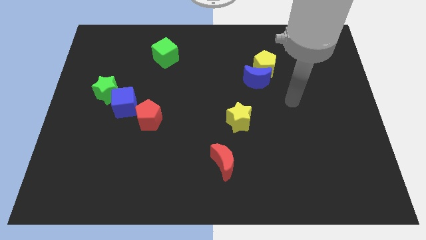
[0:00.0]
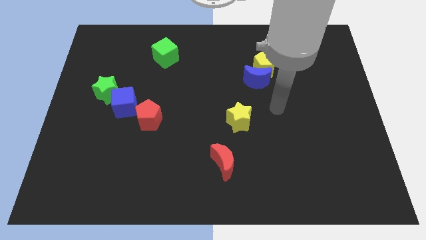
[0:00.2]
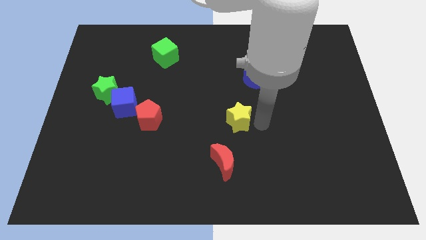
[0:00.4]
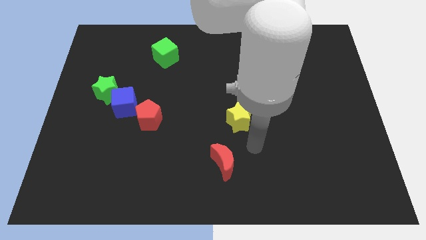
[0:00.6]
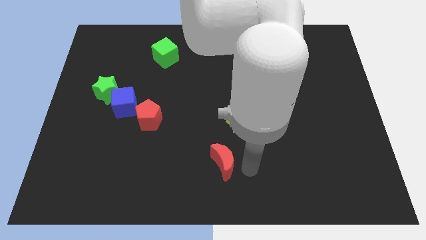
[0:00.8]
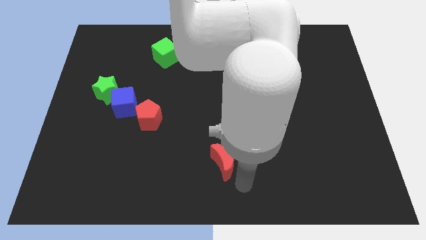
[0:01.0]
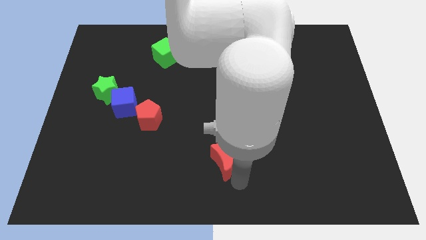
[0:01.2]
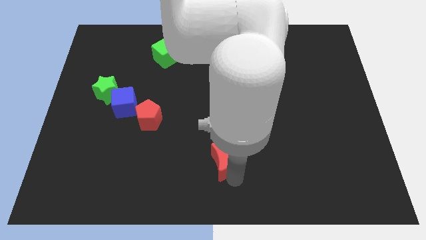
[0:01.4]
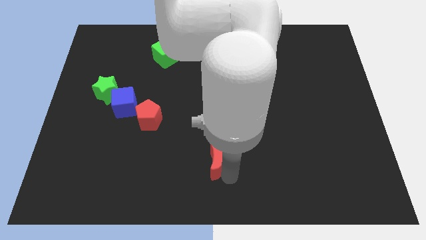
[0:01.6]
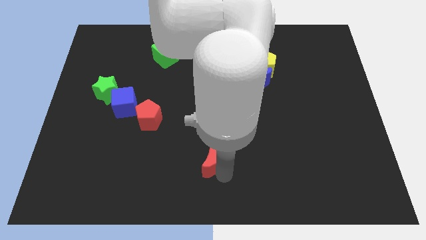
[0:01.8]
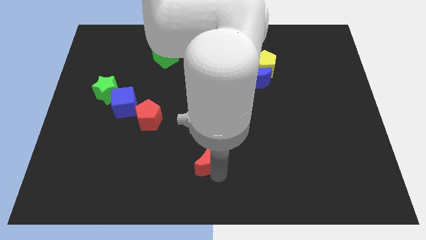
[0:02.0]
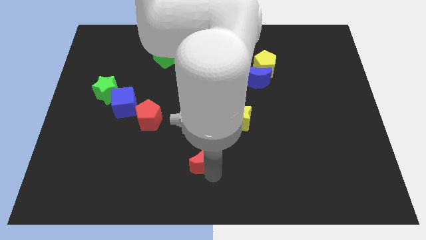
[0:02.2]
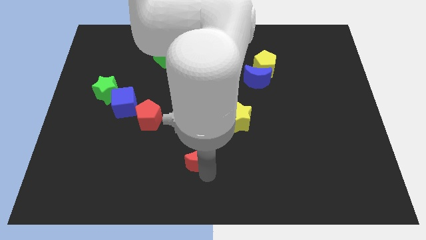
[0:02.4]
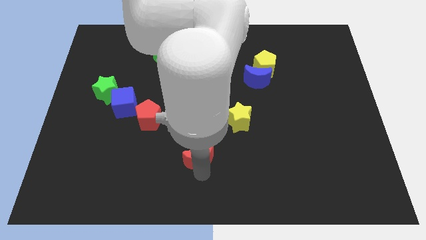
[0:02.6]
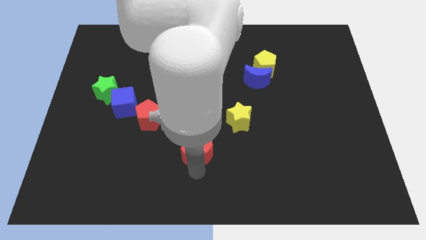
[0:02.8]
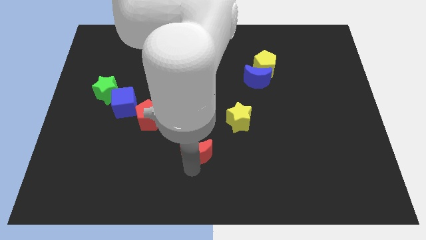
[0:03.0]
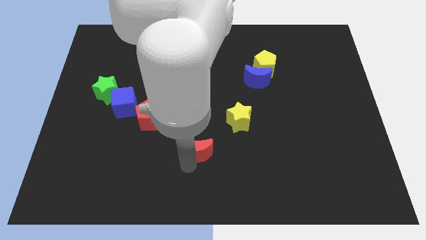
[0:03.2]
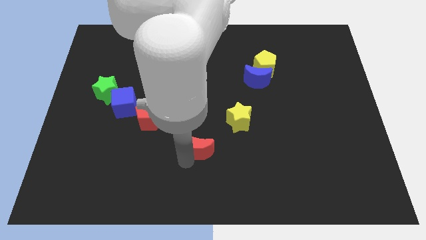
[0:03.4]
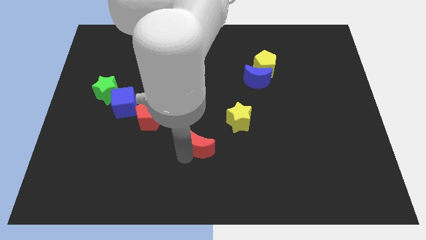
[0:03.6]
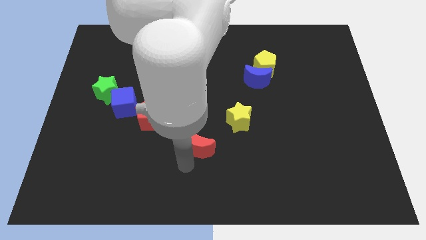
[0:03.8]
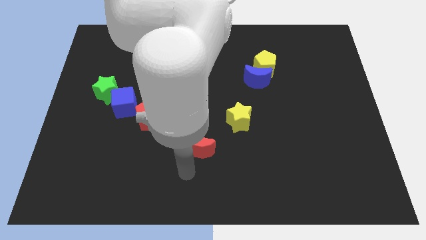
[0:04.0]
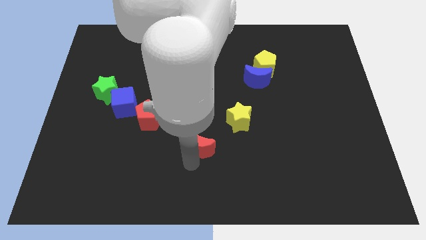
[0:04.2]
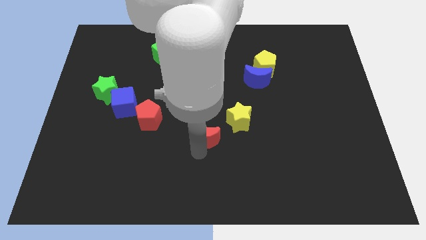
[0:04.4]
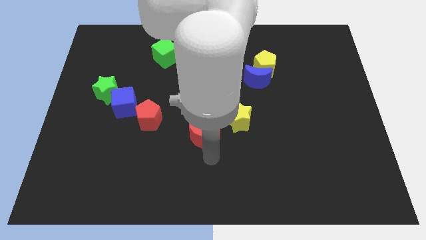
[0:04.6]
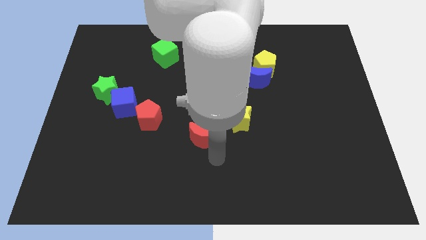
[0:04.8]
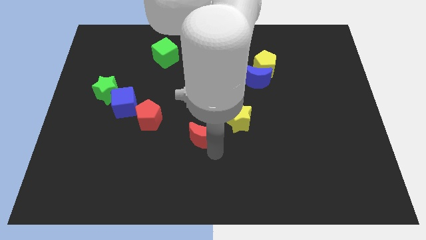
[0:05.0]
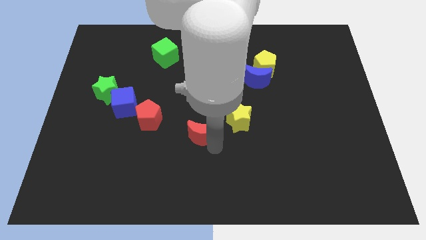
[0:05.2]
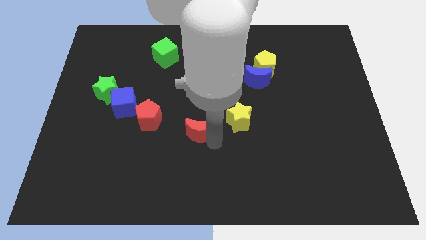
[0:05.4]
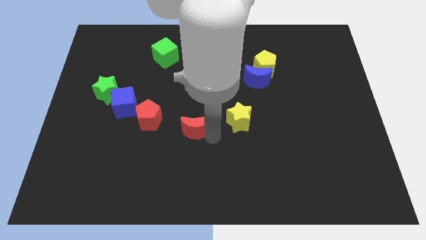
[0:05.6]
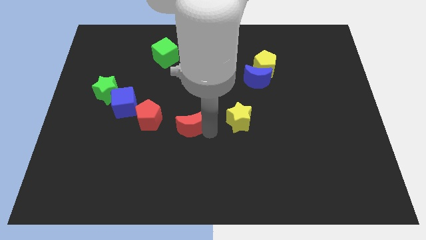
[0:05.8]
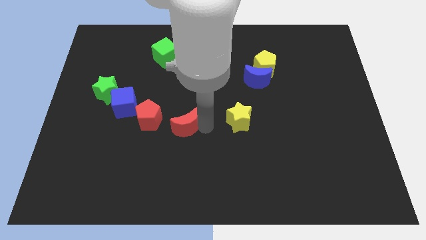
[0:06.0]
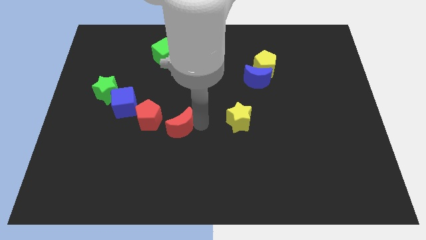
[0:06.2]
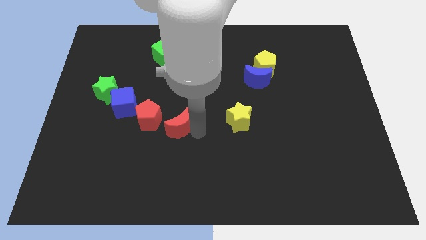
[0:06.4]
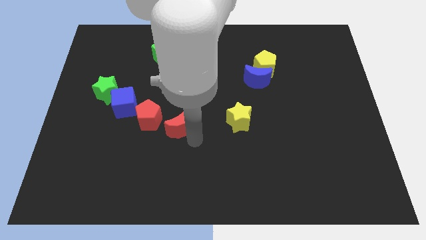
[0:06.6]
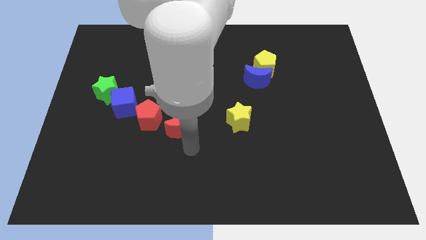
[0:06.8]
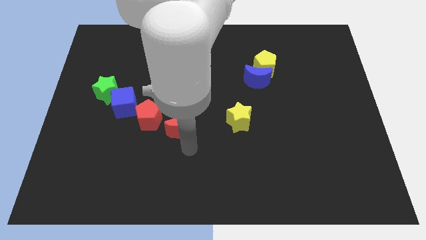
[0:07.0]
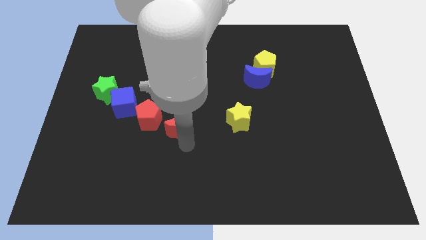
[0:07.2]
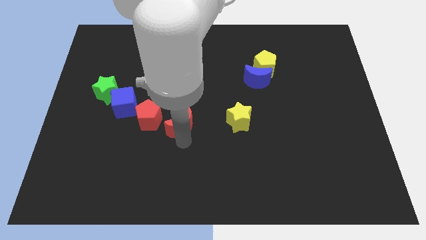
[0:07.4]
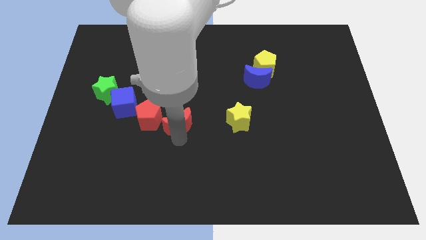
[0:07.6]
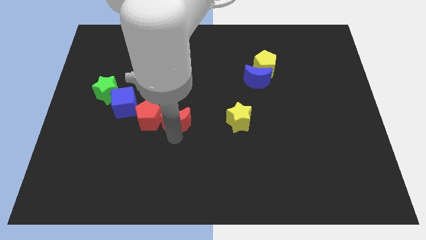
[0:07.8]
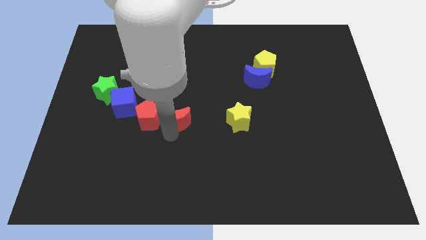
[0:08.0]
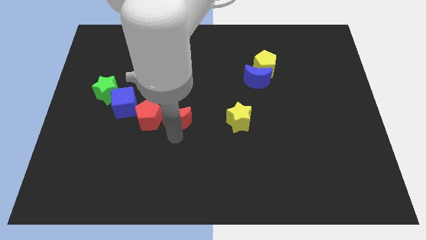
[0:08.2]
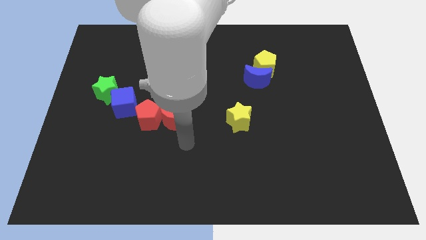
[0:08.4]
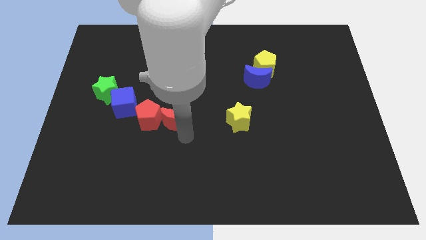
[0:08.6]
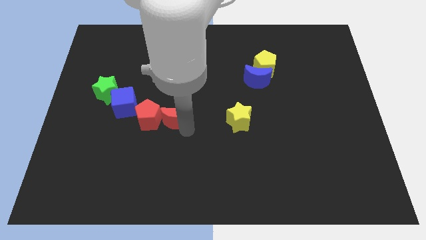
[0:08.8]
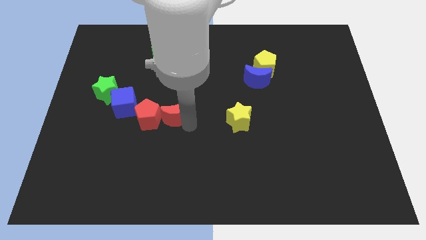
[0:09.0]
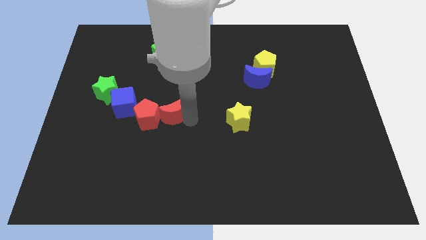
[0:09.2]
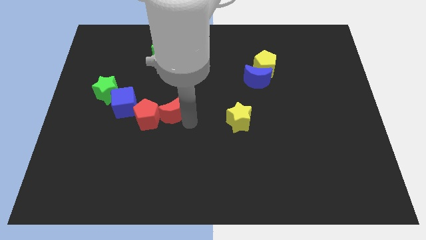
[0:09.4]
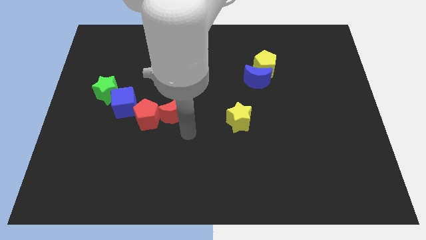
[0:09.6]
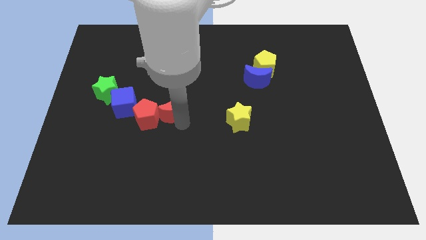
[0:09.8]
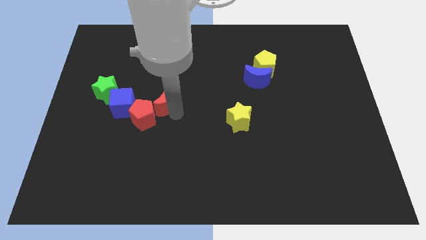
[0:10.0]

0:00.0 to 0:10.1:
move the red moon diagonally upwards and left

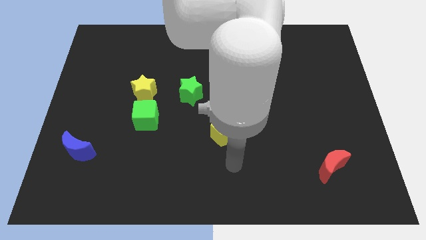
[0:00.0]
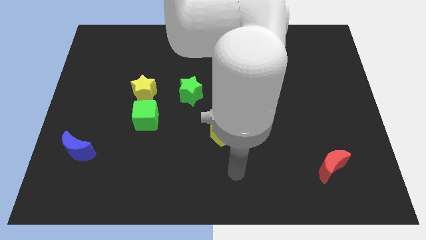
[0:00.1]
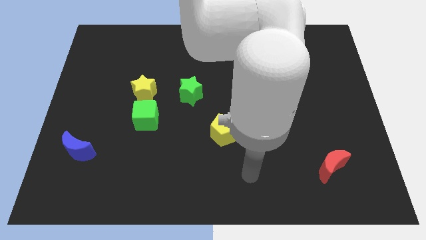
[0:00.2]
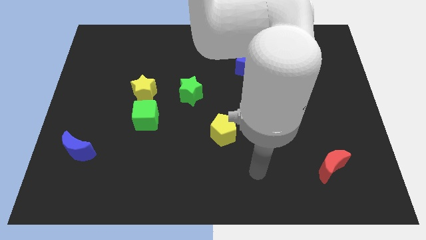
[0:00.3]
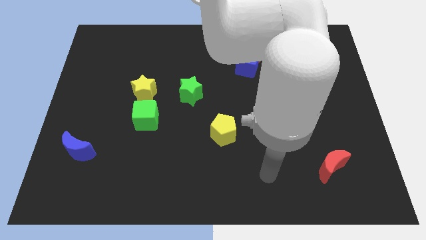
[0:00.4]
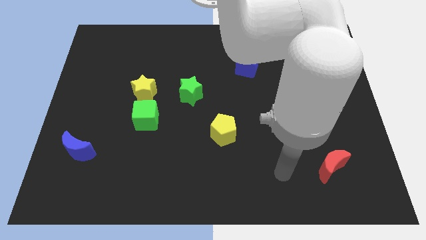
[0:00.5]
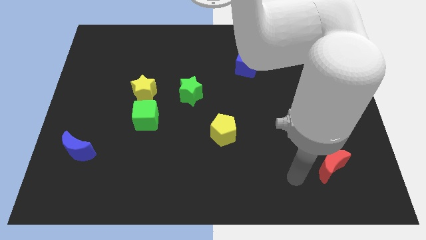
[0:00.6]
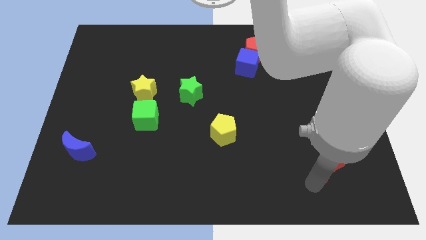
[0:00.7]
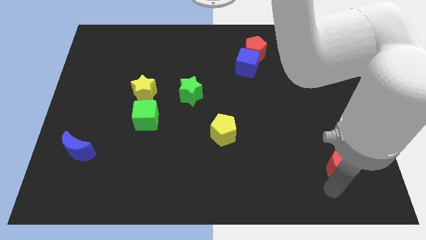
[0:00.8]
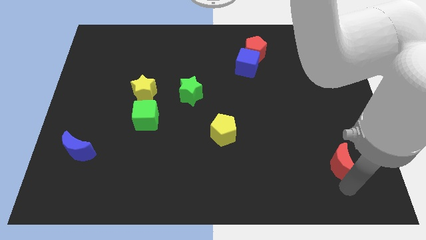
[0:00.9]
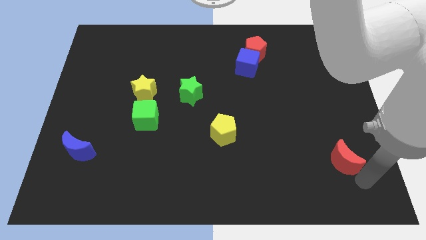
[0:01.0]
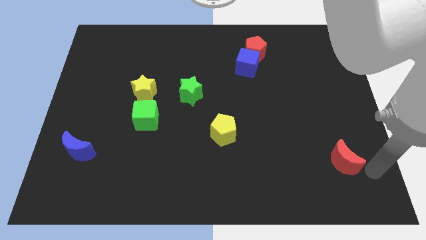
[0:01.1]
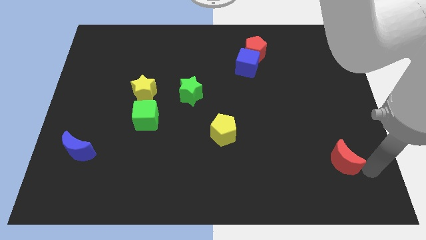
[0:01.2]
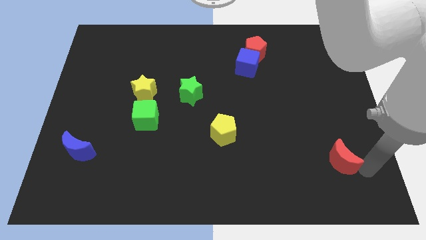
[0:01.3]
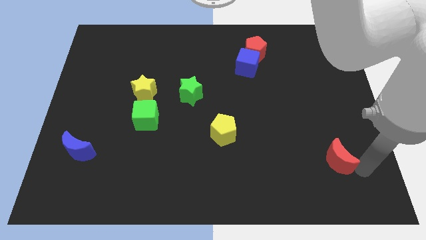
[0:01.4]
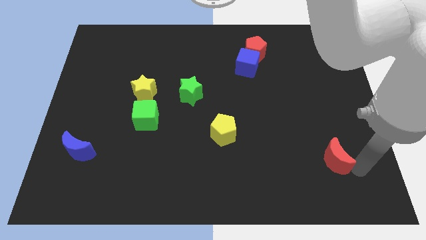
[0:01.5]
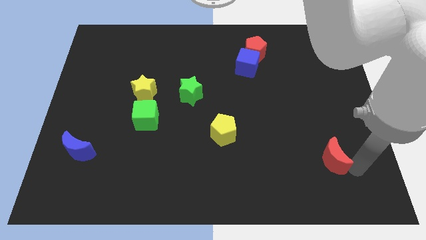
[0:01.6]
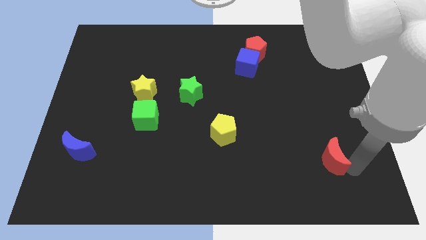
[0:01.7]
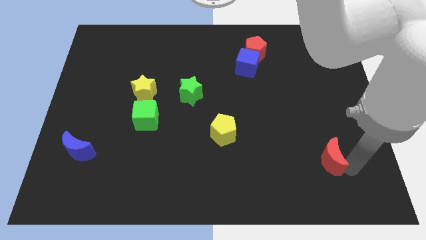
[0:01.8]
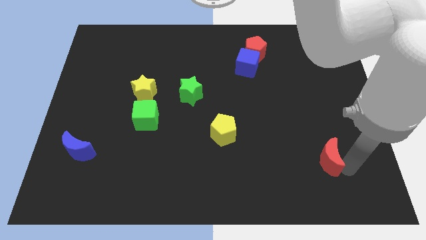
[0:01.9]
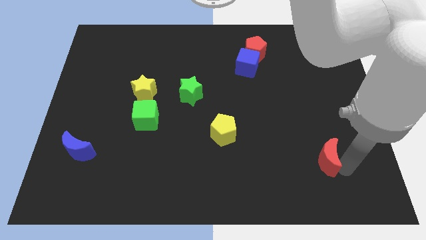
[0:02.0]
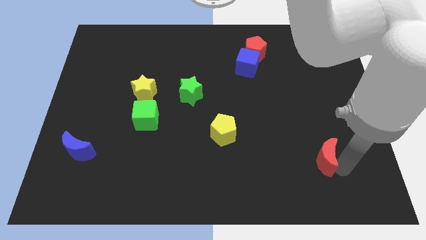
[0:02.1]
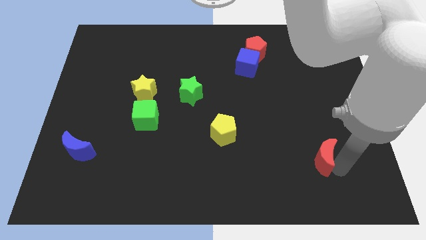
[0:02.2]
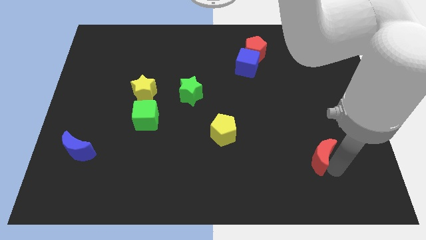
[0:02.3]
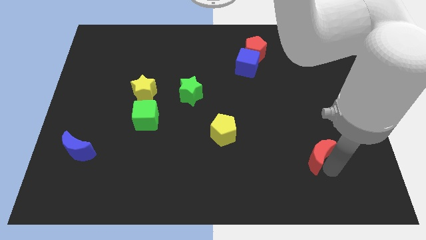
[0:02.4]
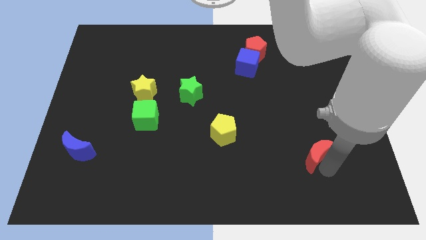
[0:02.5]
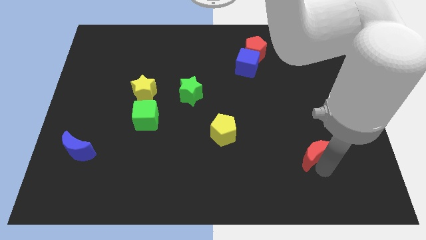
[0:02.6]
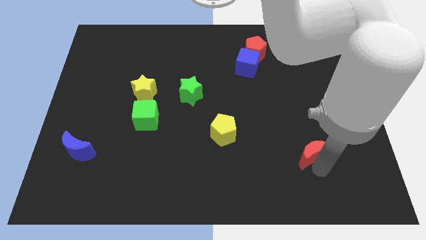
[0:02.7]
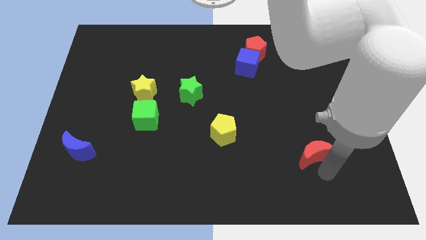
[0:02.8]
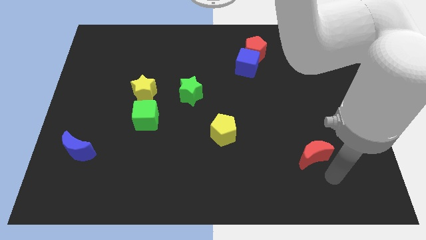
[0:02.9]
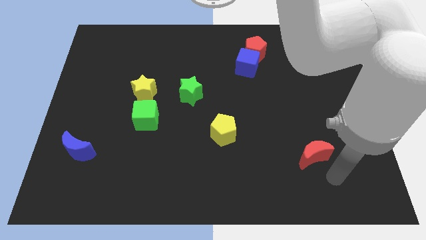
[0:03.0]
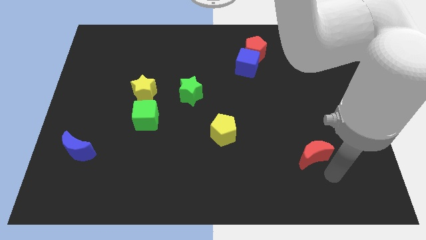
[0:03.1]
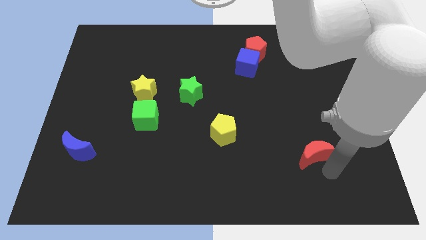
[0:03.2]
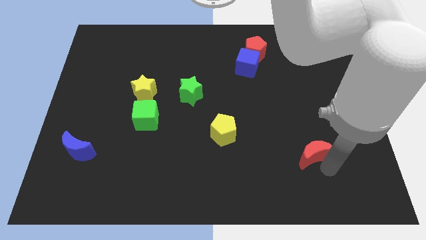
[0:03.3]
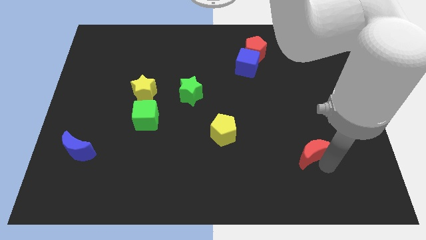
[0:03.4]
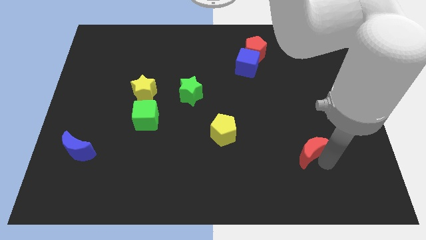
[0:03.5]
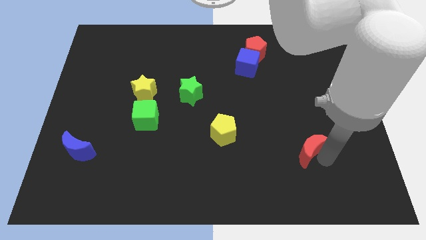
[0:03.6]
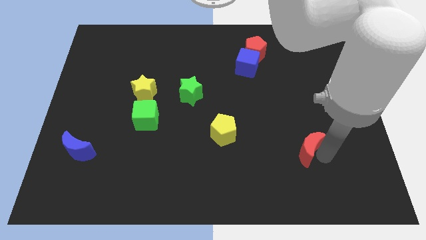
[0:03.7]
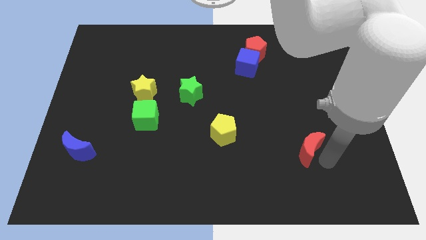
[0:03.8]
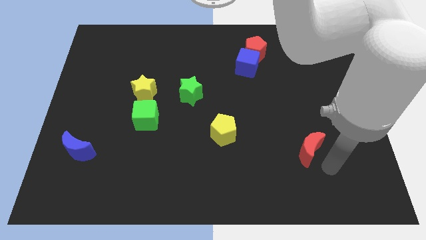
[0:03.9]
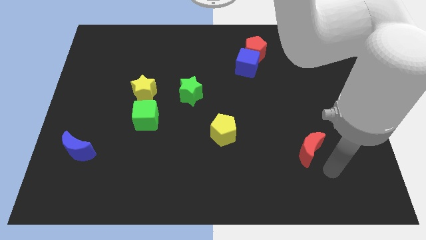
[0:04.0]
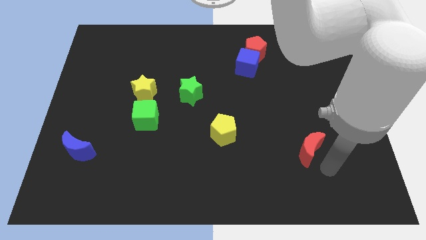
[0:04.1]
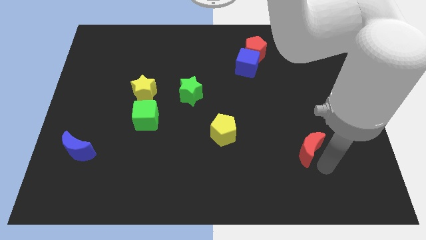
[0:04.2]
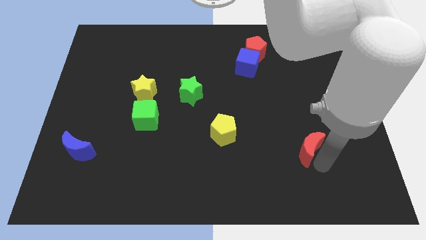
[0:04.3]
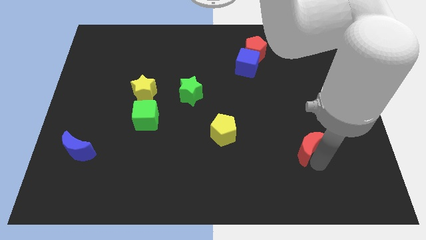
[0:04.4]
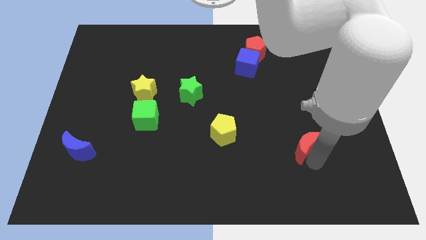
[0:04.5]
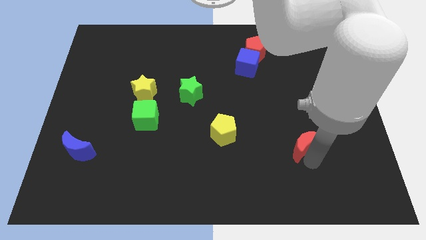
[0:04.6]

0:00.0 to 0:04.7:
slide the red moon slightly up and to the left
